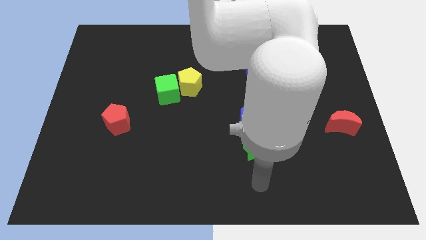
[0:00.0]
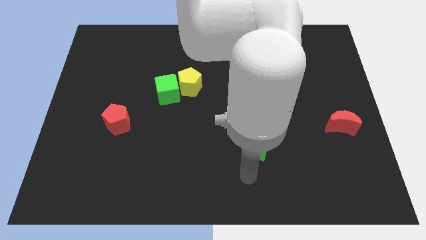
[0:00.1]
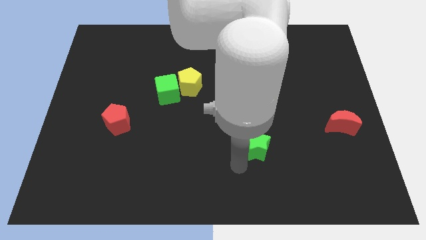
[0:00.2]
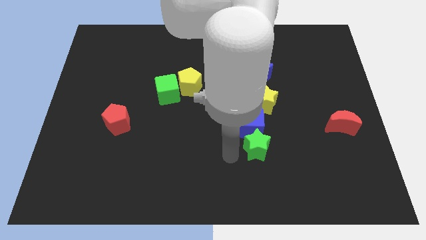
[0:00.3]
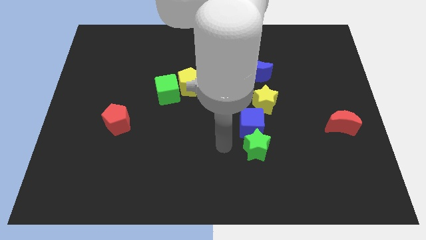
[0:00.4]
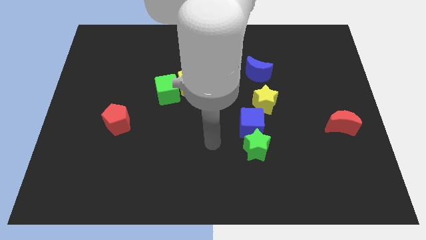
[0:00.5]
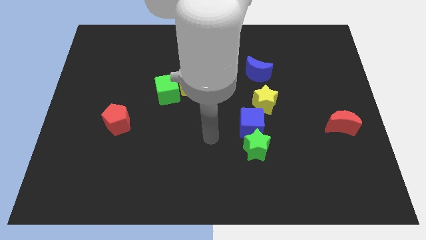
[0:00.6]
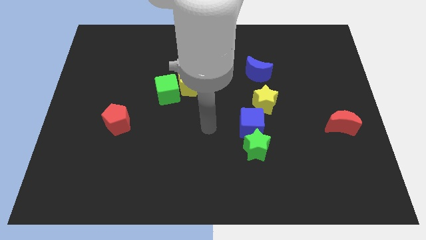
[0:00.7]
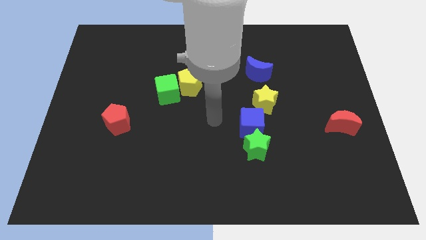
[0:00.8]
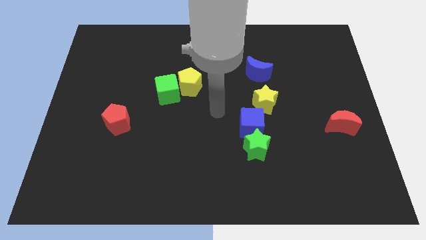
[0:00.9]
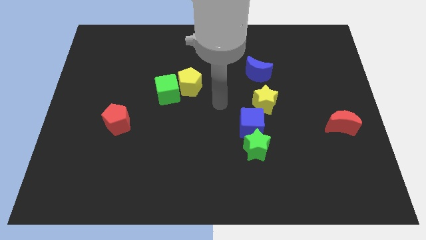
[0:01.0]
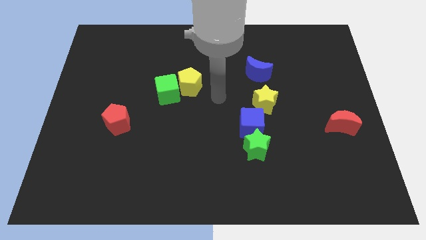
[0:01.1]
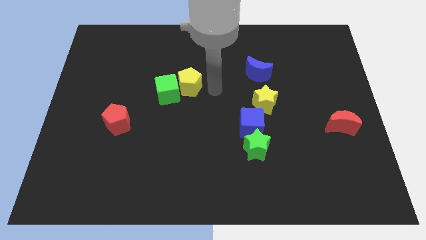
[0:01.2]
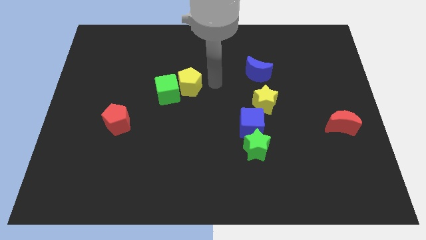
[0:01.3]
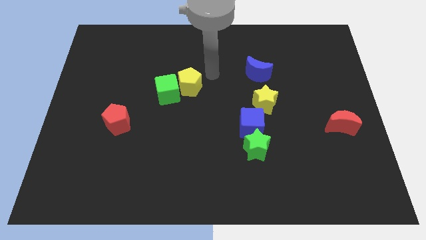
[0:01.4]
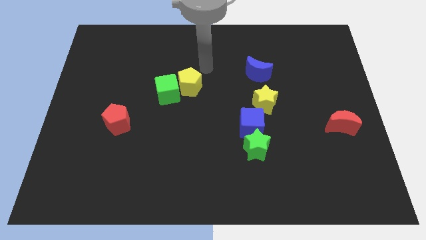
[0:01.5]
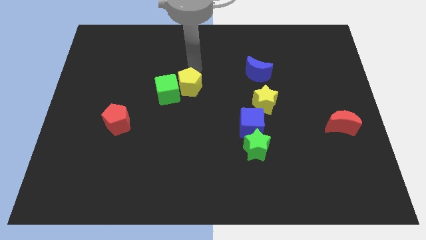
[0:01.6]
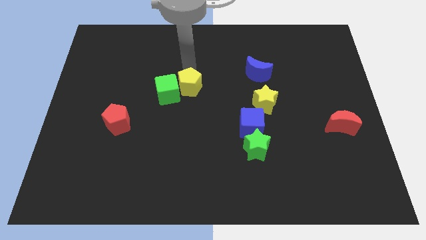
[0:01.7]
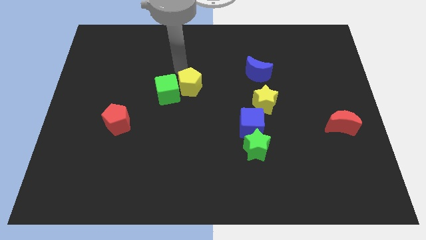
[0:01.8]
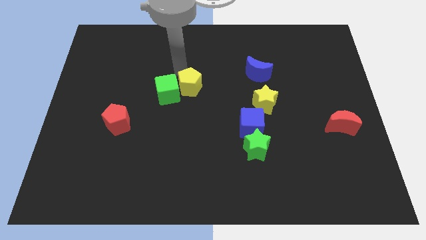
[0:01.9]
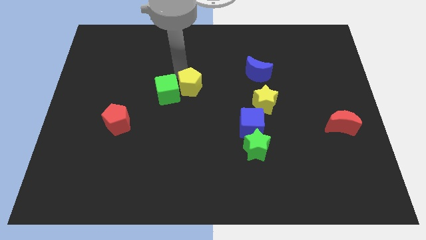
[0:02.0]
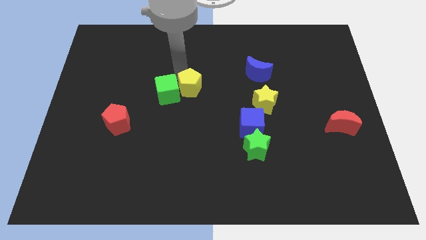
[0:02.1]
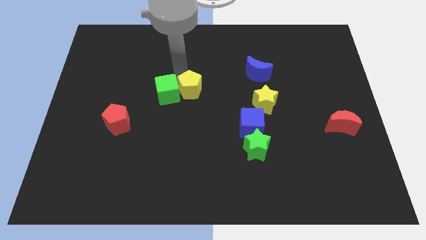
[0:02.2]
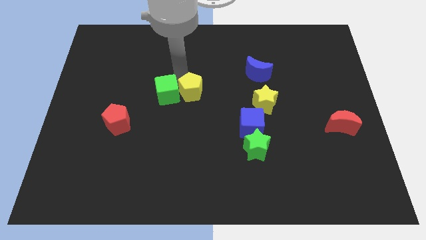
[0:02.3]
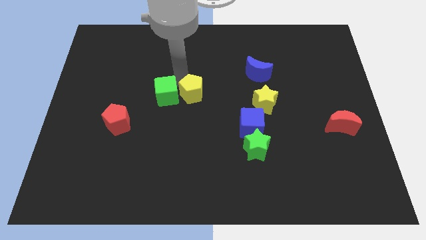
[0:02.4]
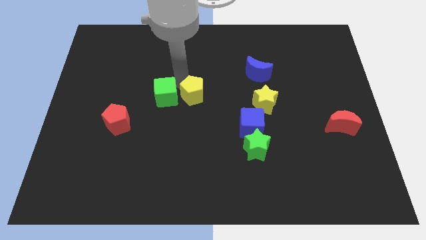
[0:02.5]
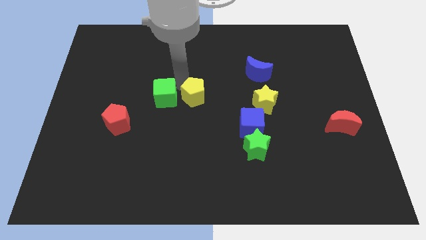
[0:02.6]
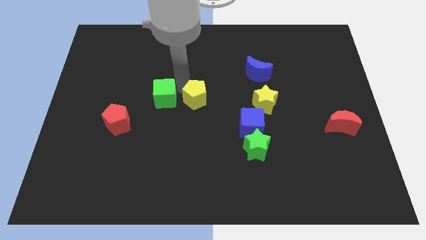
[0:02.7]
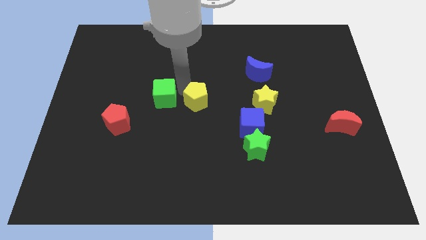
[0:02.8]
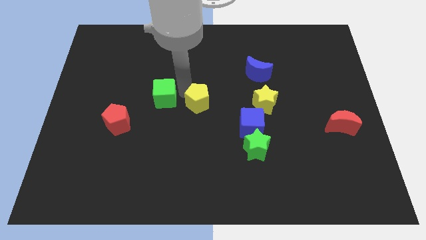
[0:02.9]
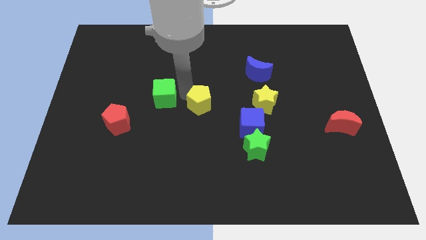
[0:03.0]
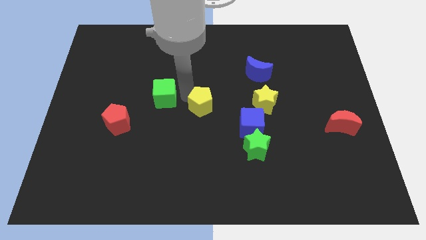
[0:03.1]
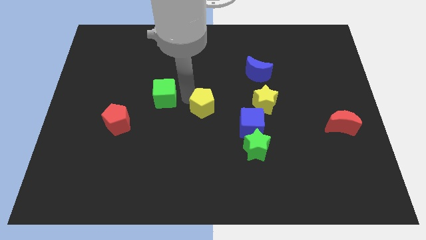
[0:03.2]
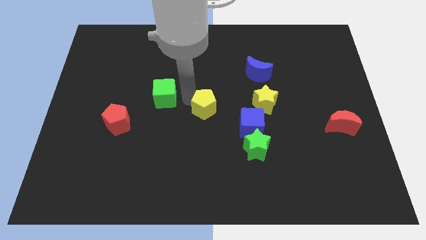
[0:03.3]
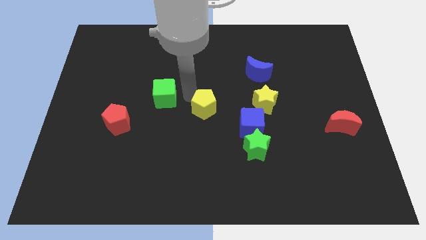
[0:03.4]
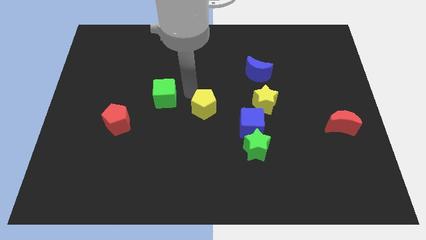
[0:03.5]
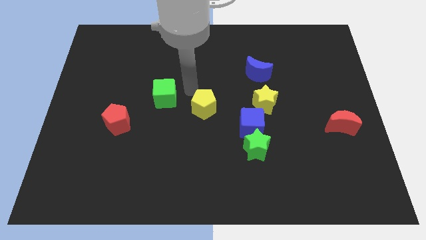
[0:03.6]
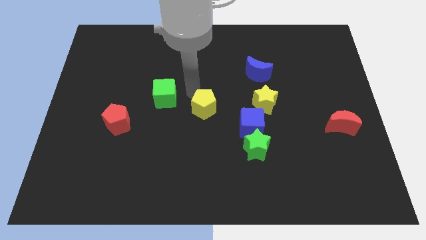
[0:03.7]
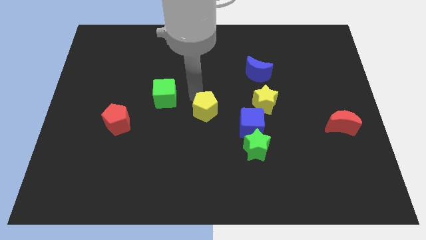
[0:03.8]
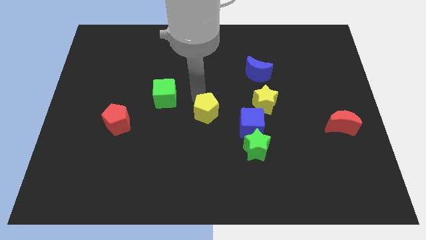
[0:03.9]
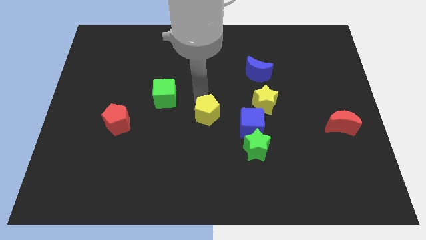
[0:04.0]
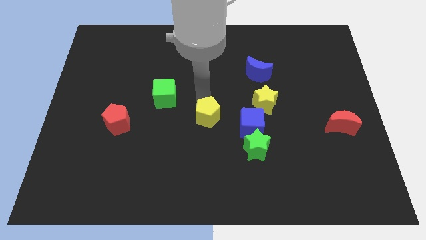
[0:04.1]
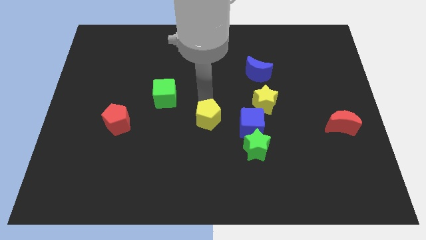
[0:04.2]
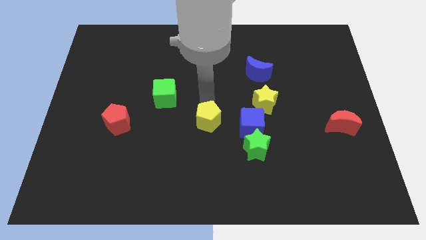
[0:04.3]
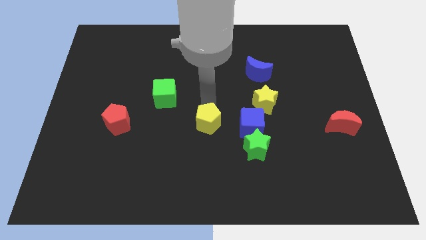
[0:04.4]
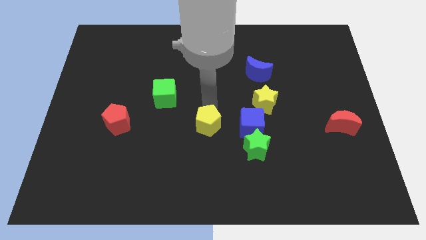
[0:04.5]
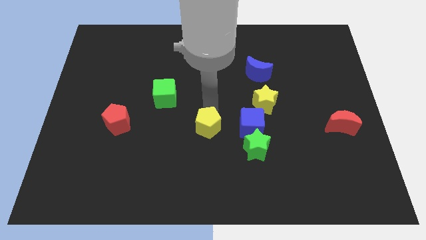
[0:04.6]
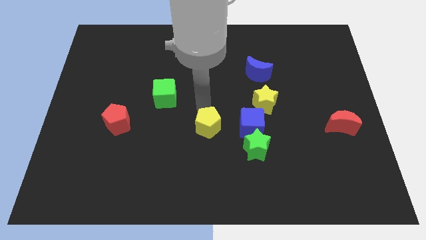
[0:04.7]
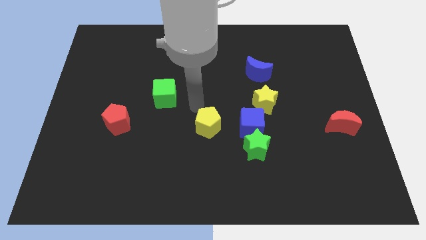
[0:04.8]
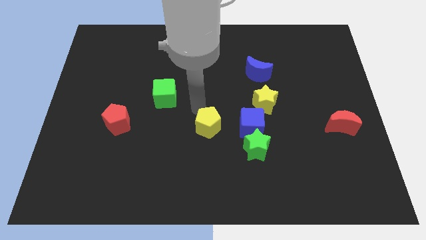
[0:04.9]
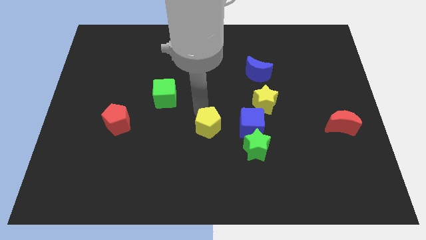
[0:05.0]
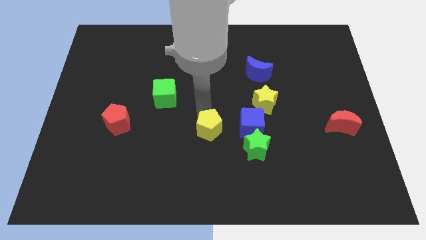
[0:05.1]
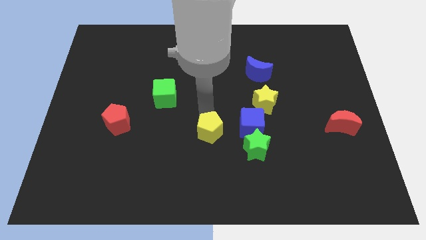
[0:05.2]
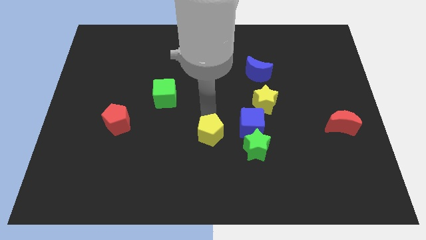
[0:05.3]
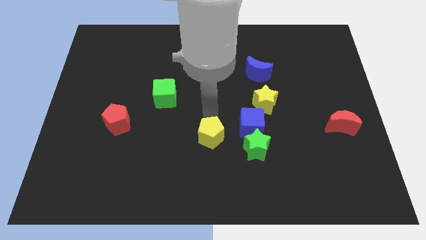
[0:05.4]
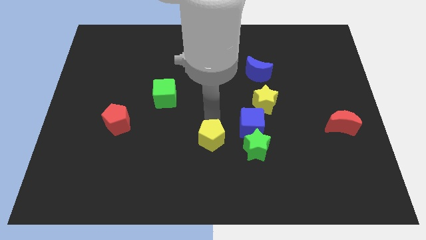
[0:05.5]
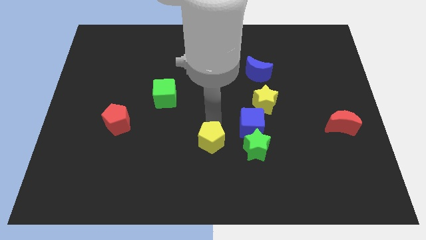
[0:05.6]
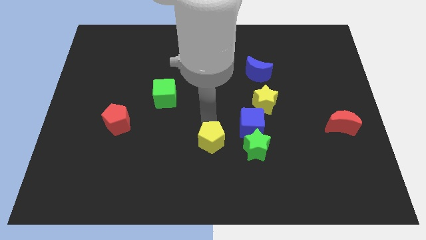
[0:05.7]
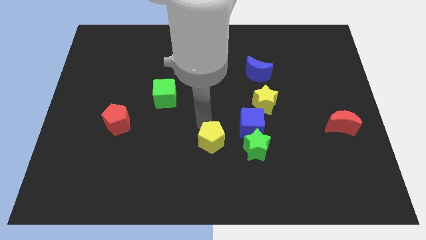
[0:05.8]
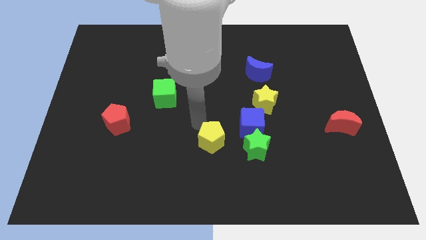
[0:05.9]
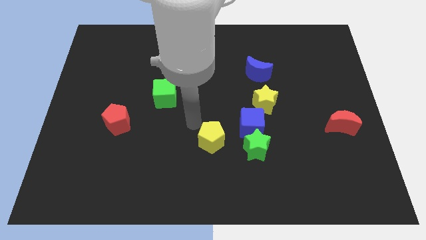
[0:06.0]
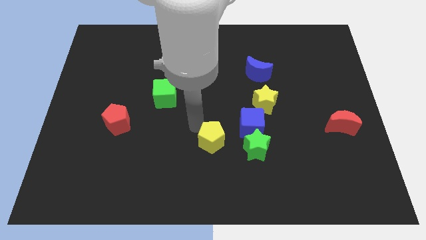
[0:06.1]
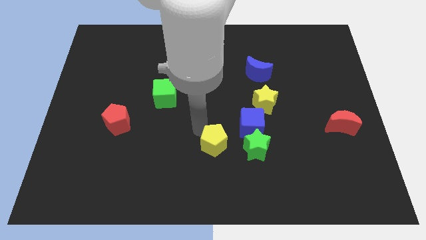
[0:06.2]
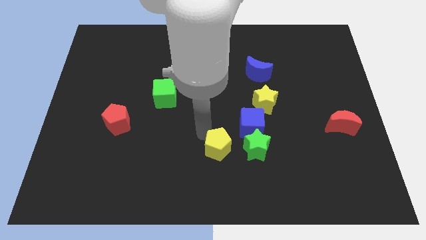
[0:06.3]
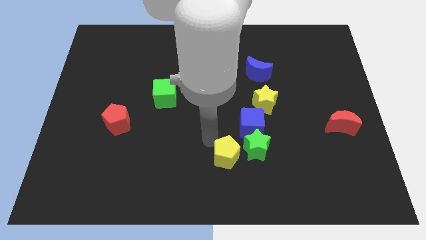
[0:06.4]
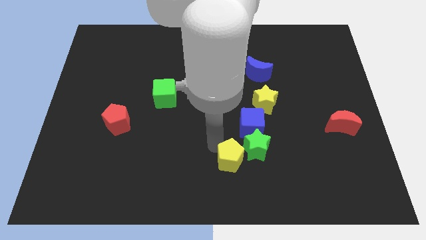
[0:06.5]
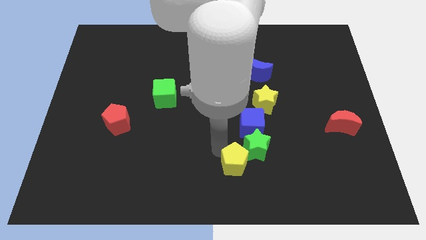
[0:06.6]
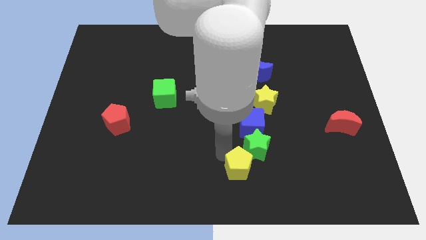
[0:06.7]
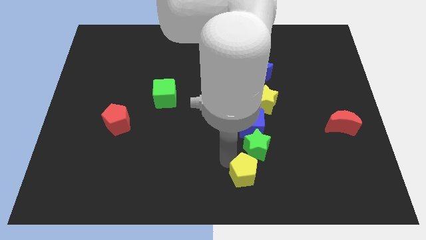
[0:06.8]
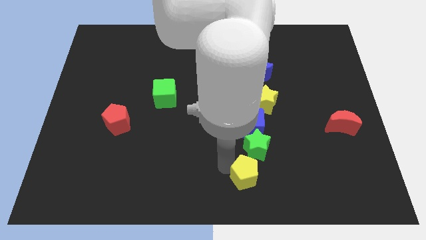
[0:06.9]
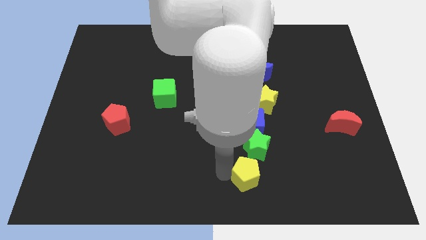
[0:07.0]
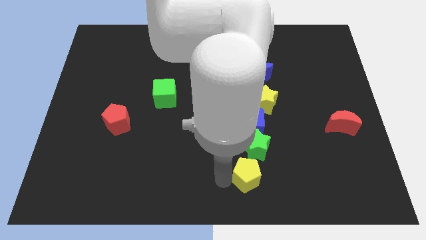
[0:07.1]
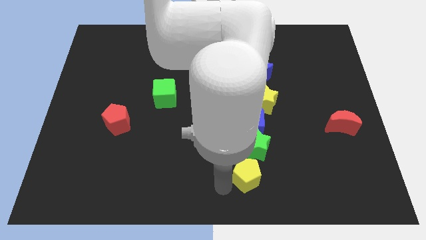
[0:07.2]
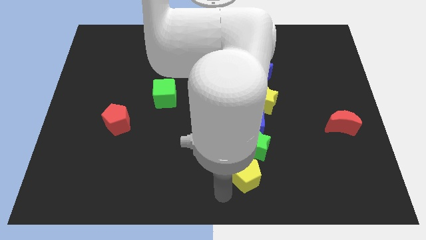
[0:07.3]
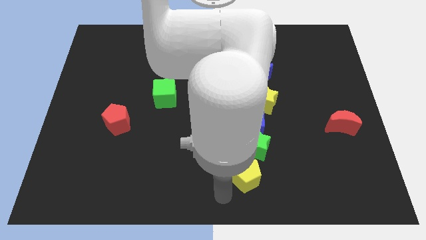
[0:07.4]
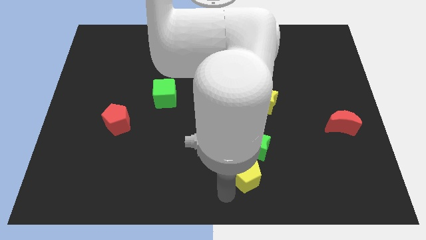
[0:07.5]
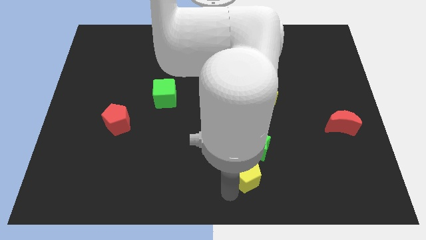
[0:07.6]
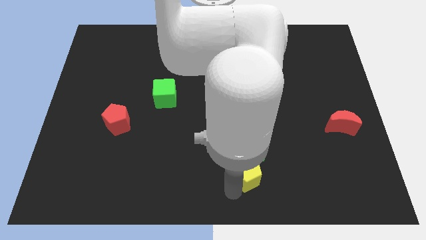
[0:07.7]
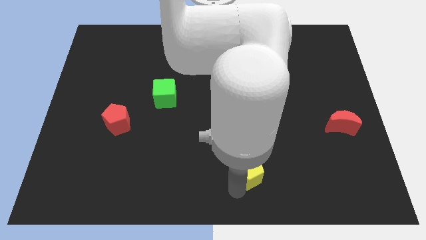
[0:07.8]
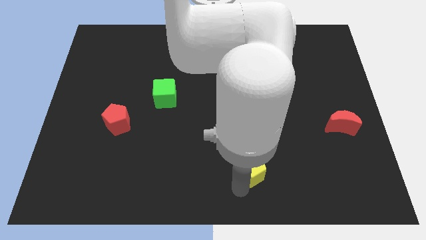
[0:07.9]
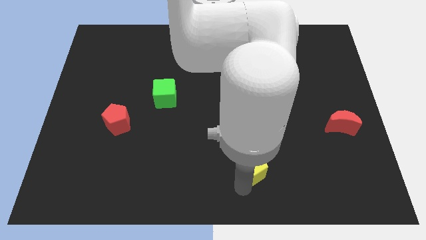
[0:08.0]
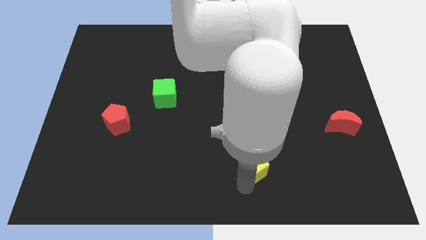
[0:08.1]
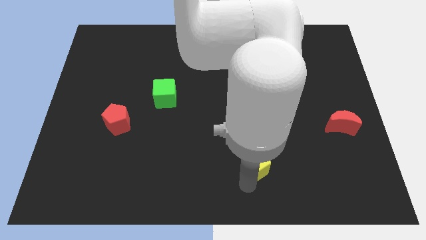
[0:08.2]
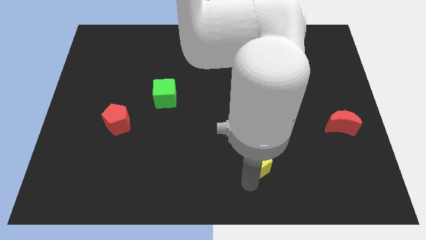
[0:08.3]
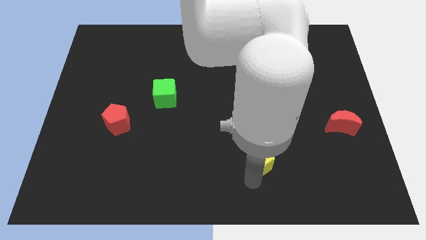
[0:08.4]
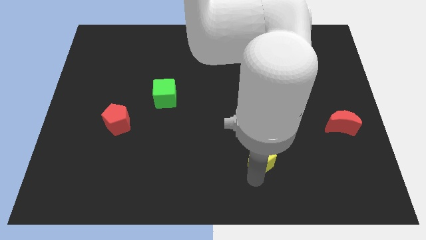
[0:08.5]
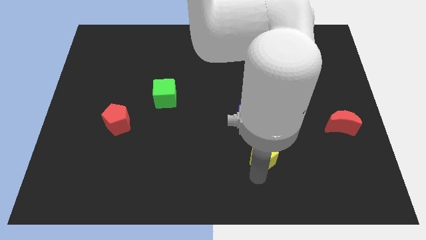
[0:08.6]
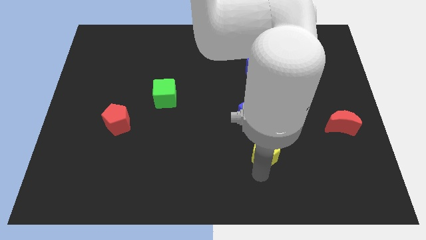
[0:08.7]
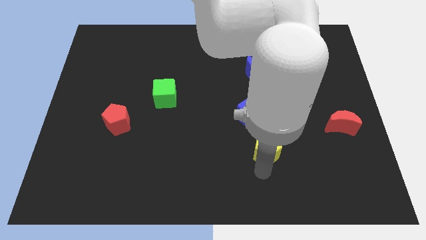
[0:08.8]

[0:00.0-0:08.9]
slide the yellow pentagon to the bottom right of the blue cube
